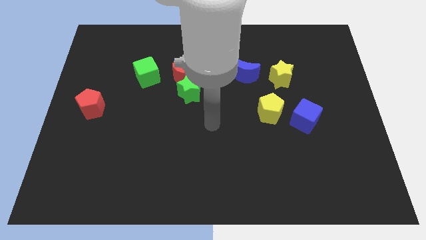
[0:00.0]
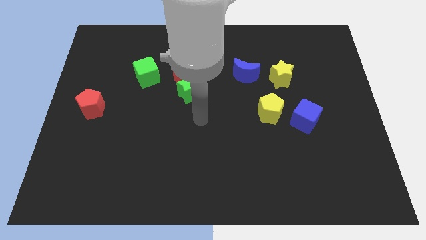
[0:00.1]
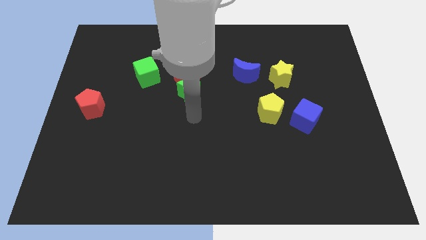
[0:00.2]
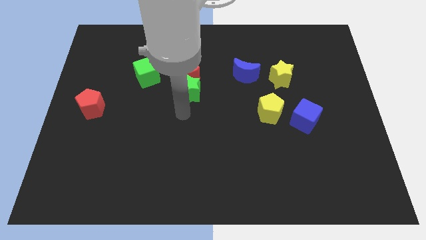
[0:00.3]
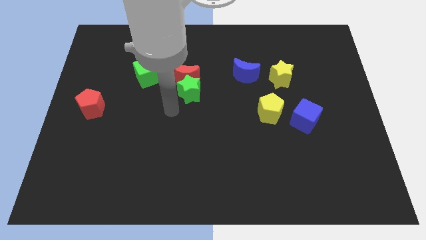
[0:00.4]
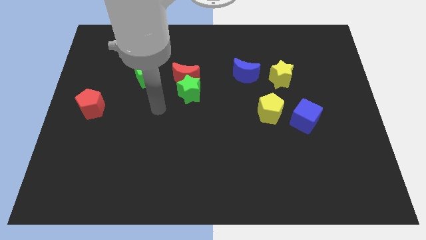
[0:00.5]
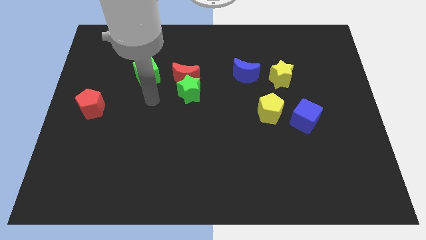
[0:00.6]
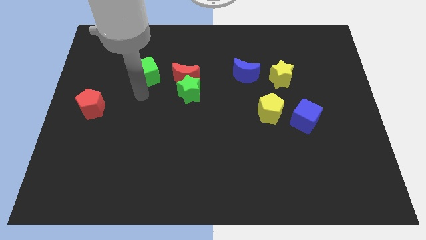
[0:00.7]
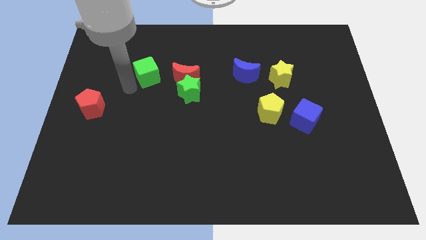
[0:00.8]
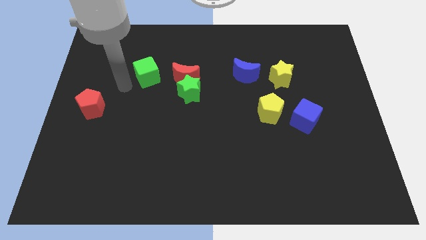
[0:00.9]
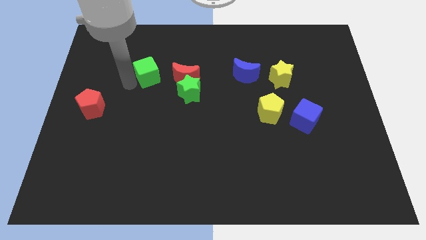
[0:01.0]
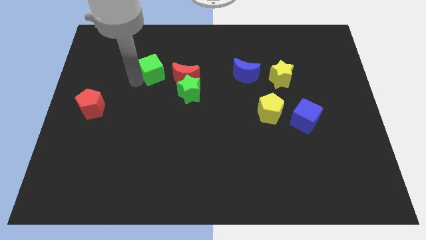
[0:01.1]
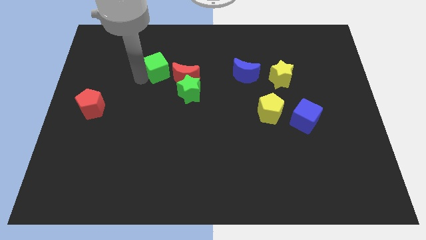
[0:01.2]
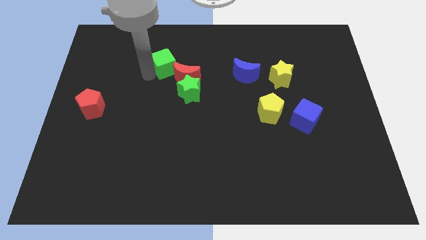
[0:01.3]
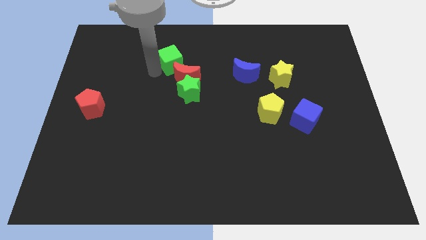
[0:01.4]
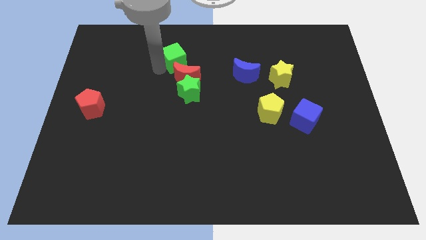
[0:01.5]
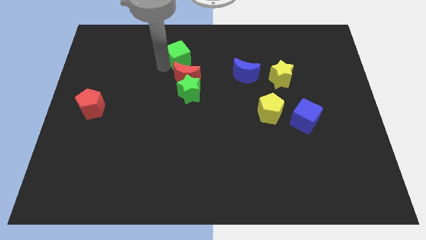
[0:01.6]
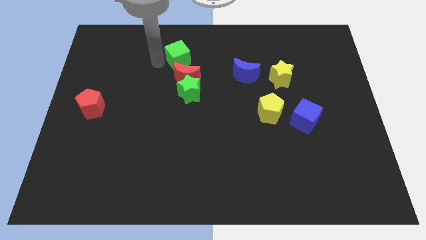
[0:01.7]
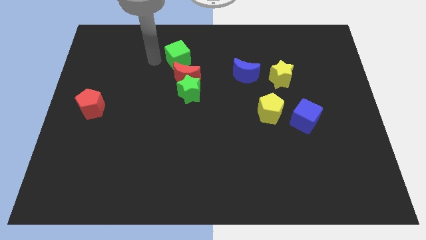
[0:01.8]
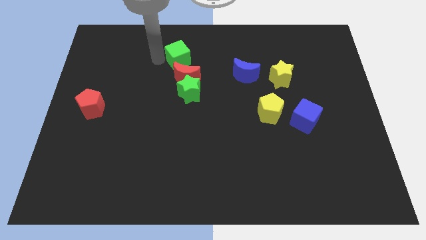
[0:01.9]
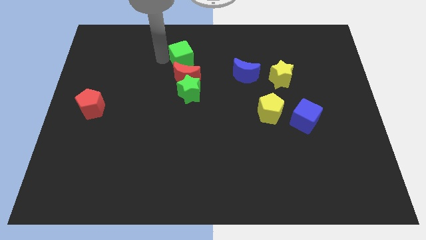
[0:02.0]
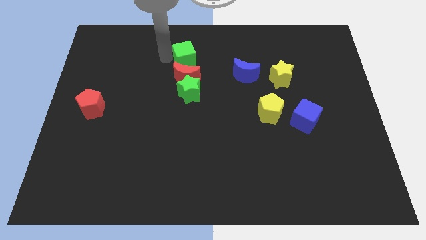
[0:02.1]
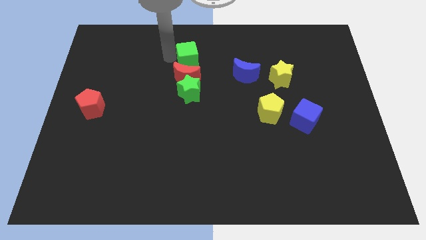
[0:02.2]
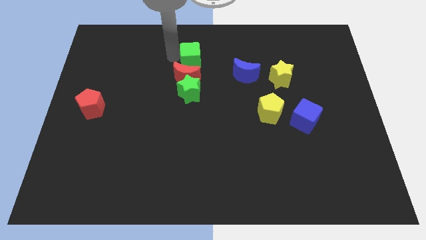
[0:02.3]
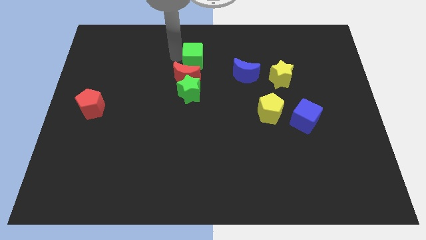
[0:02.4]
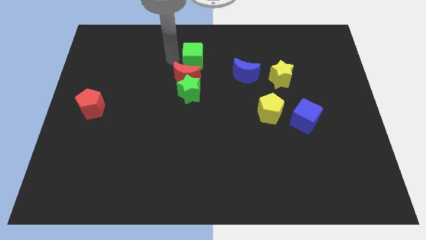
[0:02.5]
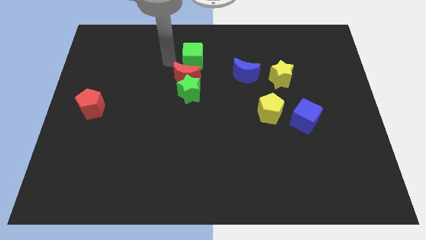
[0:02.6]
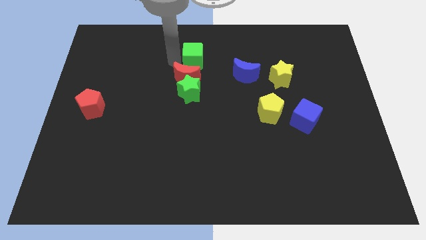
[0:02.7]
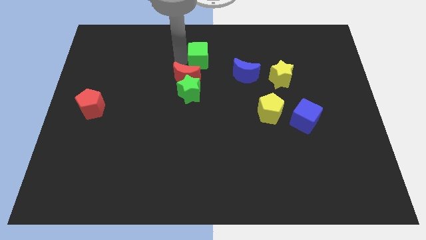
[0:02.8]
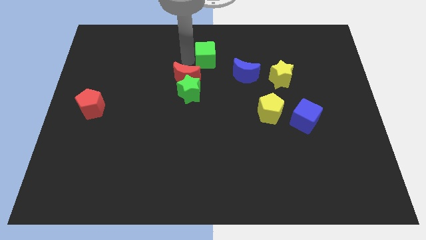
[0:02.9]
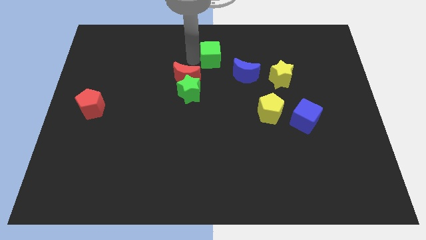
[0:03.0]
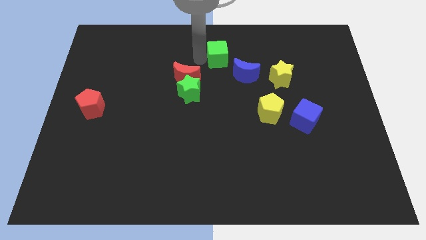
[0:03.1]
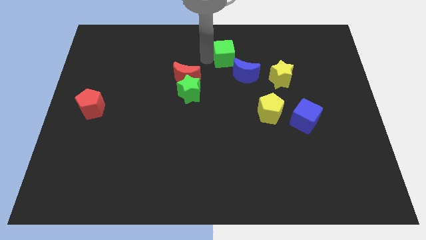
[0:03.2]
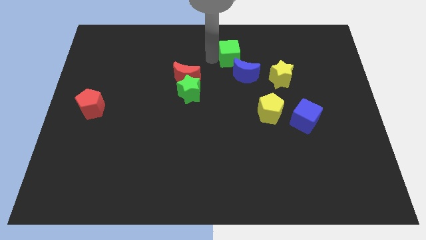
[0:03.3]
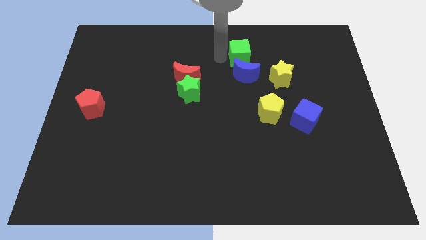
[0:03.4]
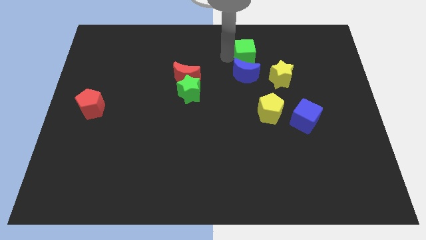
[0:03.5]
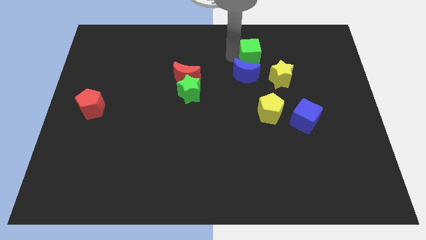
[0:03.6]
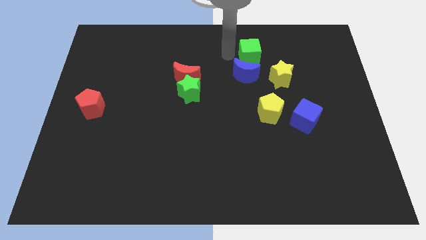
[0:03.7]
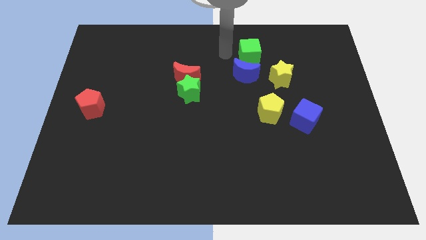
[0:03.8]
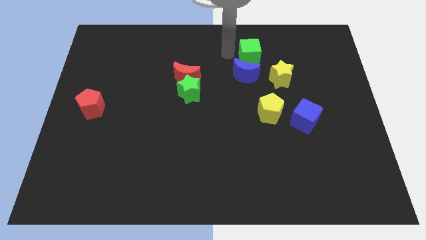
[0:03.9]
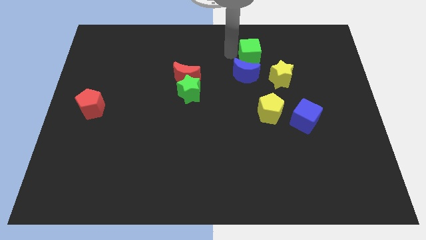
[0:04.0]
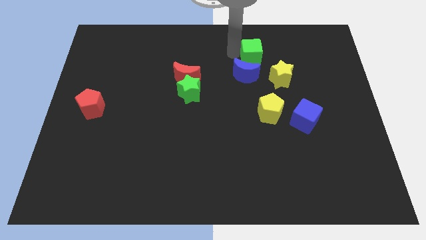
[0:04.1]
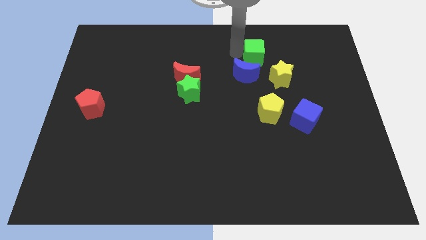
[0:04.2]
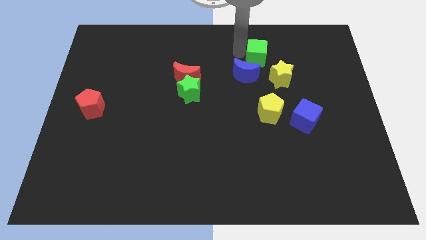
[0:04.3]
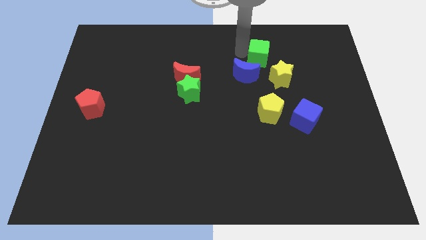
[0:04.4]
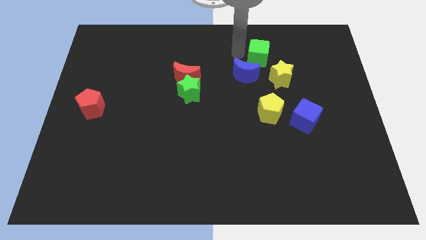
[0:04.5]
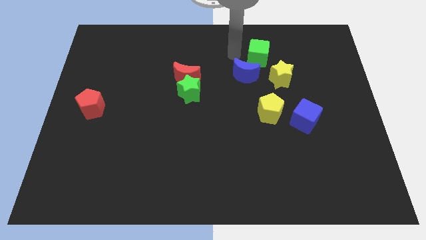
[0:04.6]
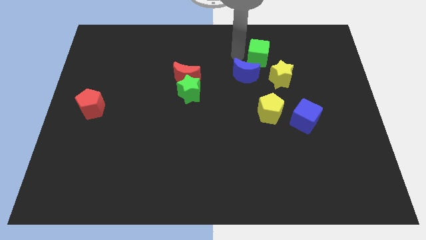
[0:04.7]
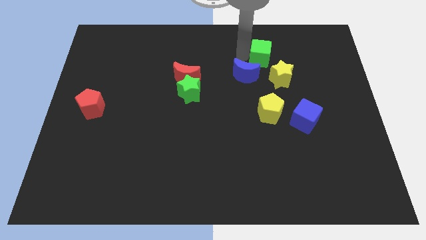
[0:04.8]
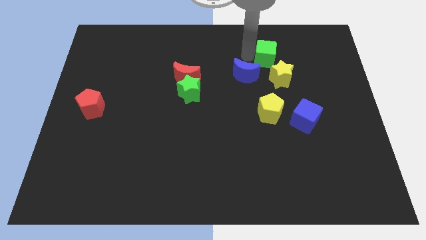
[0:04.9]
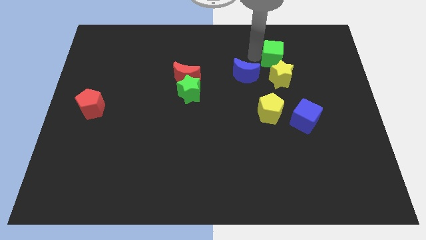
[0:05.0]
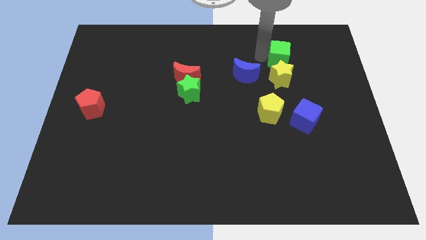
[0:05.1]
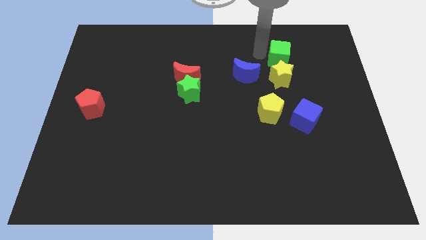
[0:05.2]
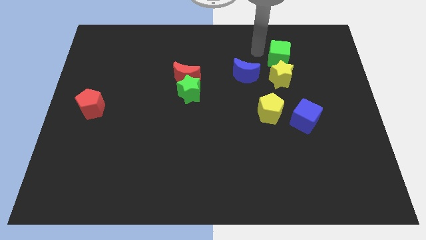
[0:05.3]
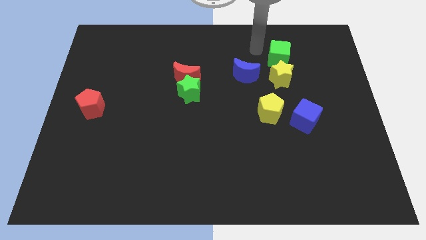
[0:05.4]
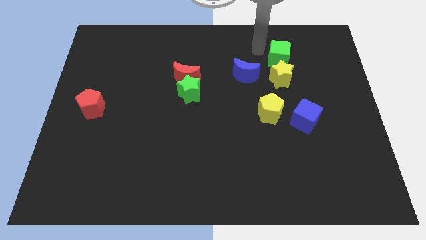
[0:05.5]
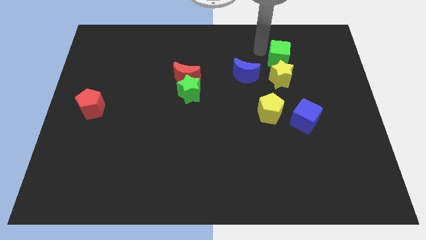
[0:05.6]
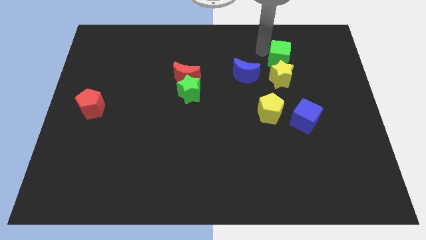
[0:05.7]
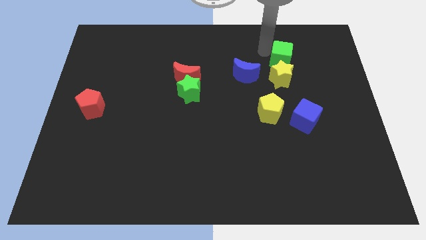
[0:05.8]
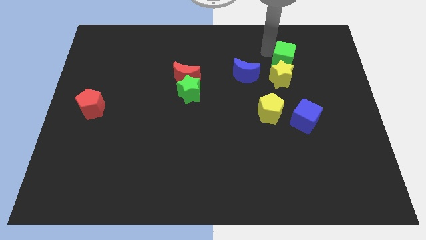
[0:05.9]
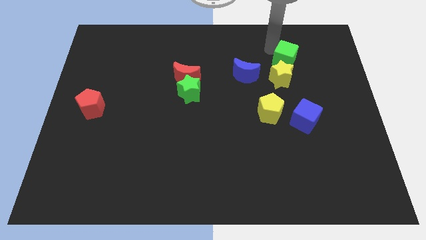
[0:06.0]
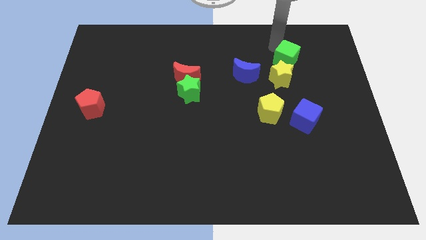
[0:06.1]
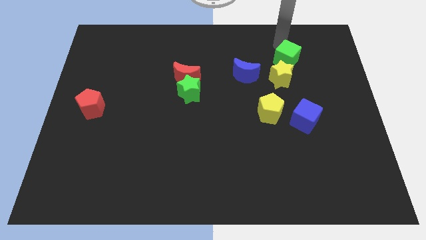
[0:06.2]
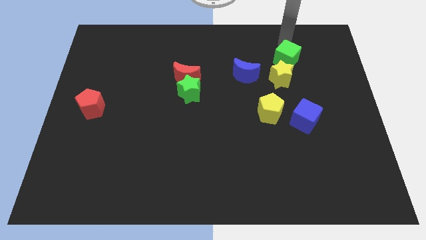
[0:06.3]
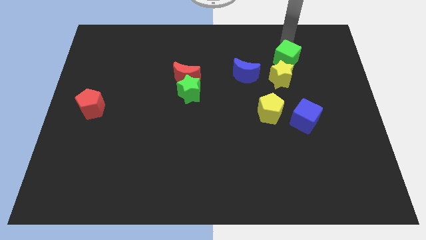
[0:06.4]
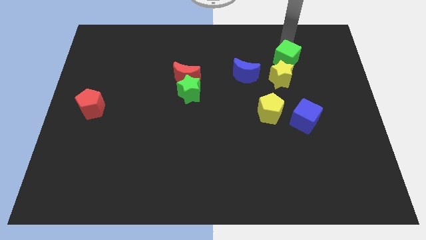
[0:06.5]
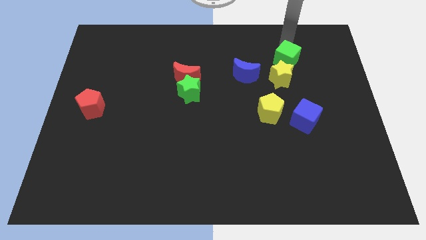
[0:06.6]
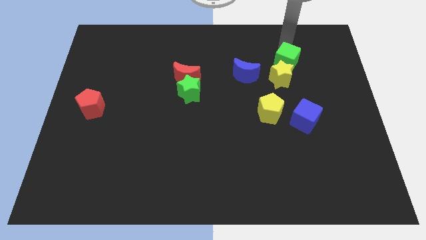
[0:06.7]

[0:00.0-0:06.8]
move the green cube to the right of the blue moon
